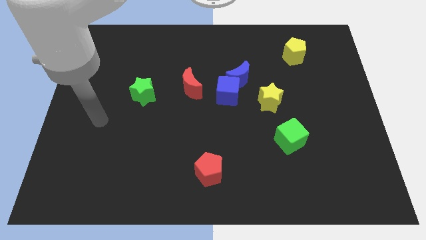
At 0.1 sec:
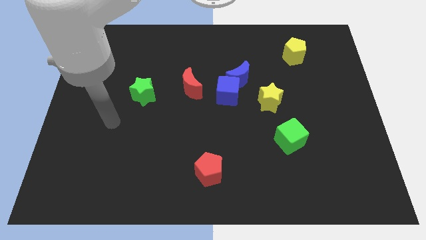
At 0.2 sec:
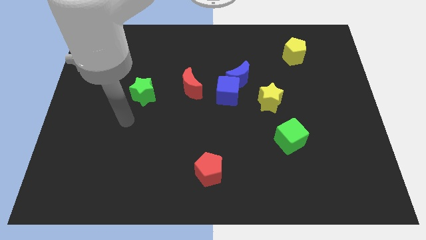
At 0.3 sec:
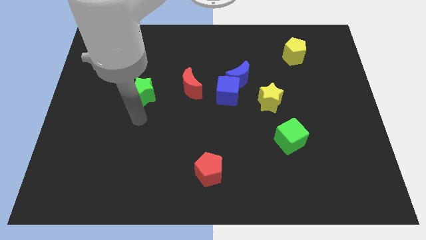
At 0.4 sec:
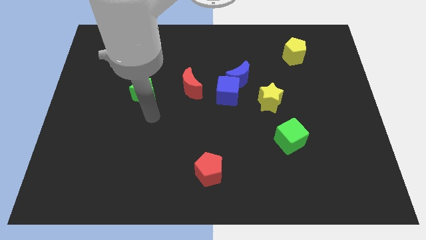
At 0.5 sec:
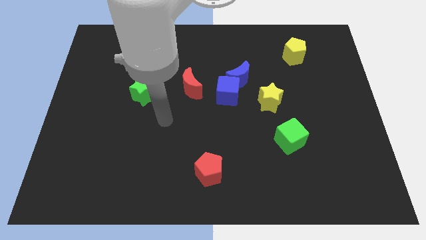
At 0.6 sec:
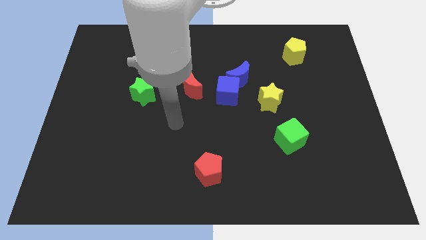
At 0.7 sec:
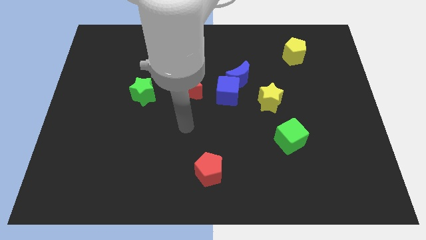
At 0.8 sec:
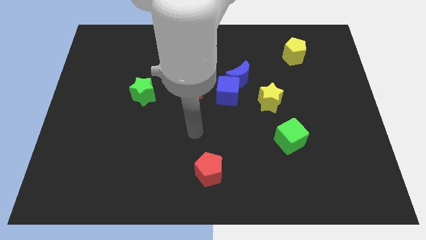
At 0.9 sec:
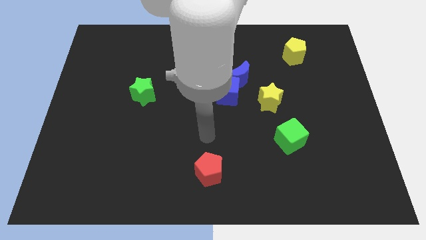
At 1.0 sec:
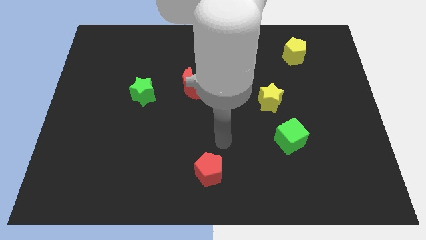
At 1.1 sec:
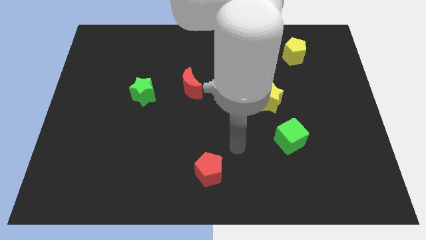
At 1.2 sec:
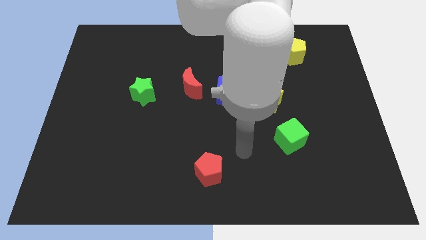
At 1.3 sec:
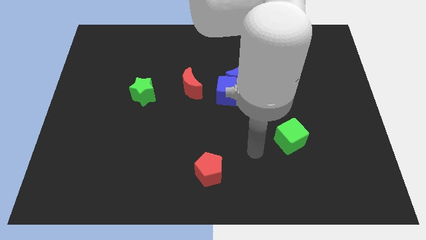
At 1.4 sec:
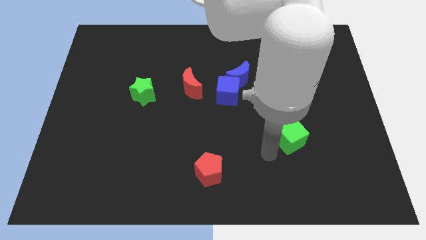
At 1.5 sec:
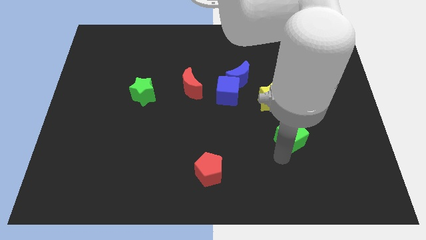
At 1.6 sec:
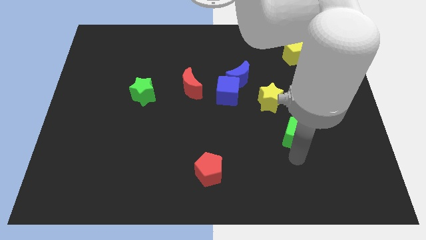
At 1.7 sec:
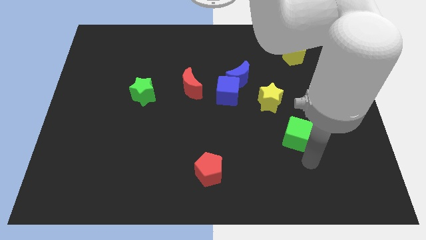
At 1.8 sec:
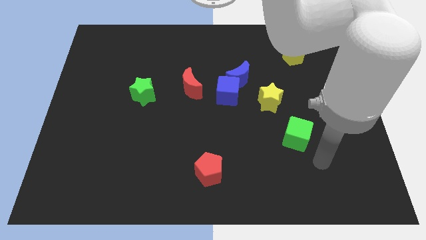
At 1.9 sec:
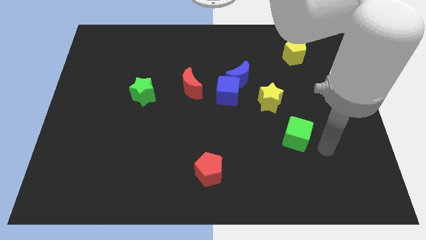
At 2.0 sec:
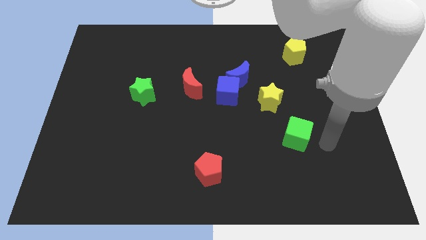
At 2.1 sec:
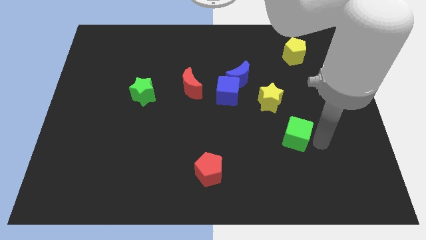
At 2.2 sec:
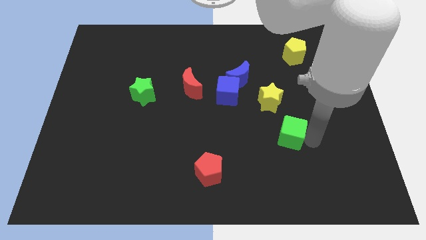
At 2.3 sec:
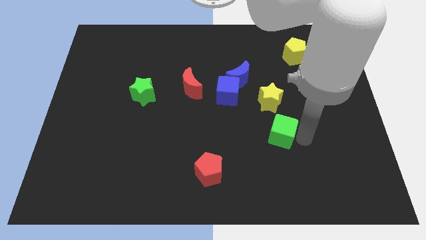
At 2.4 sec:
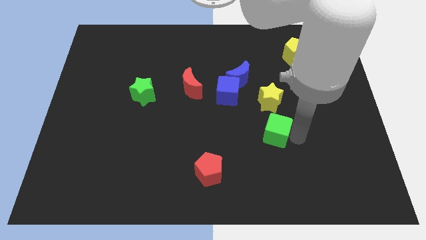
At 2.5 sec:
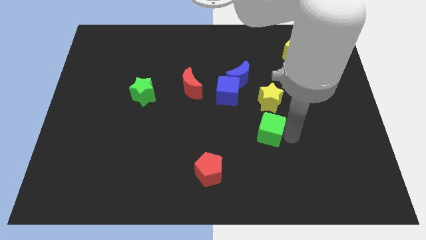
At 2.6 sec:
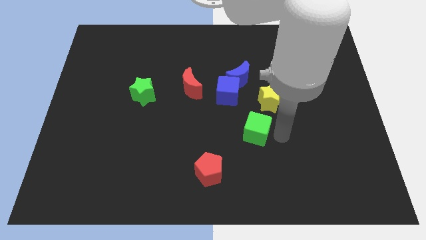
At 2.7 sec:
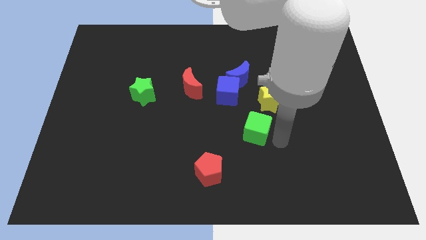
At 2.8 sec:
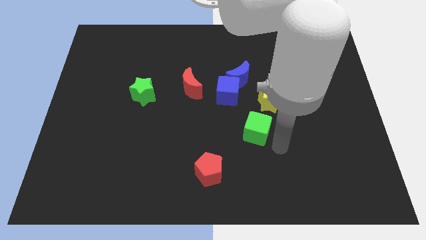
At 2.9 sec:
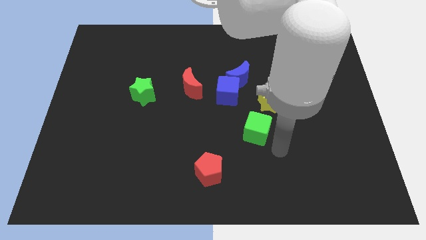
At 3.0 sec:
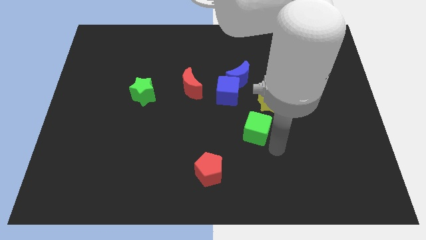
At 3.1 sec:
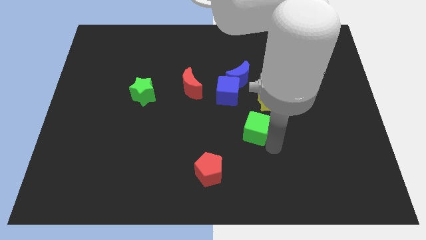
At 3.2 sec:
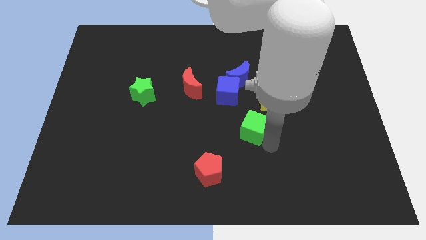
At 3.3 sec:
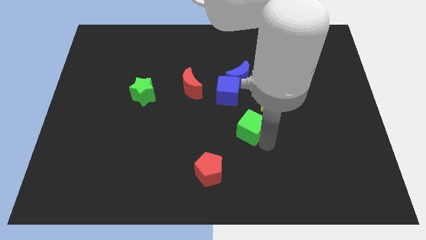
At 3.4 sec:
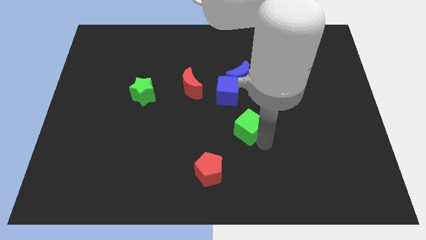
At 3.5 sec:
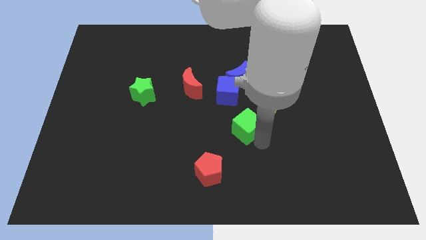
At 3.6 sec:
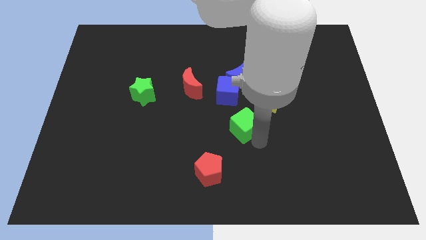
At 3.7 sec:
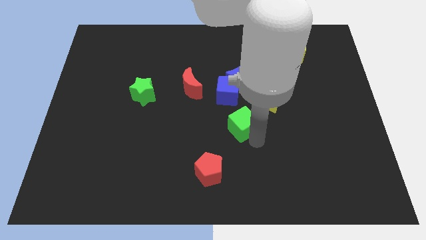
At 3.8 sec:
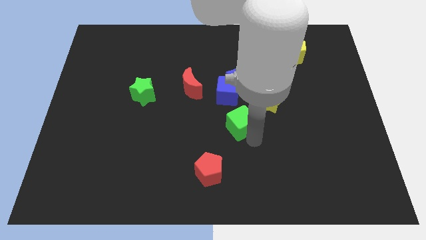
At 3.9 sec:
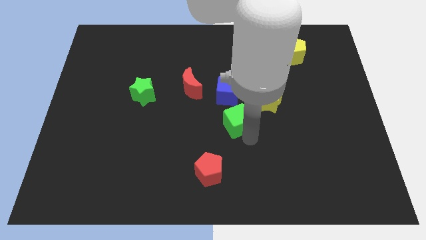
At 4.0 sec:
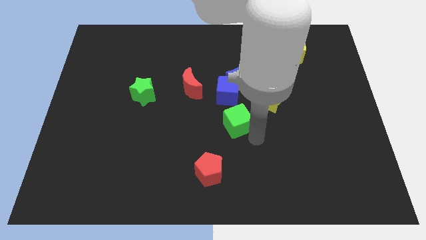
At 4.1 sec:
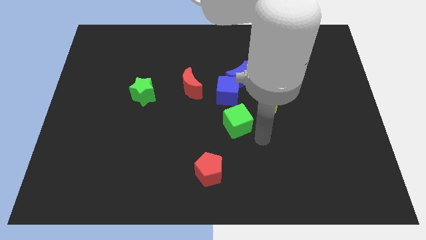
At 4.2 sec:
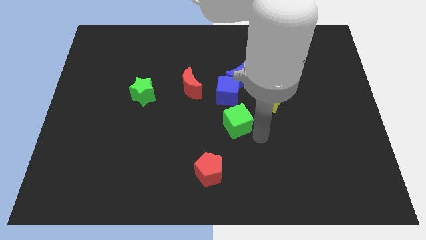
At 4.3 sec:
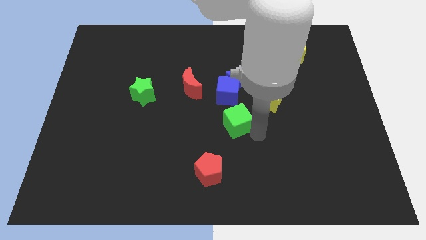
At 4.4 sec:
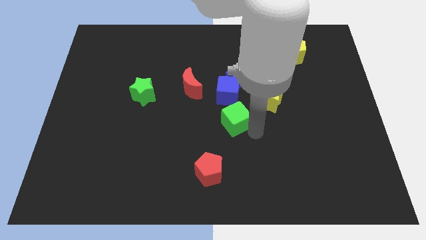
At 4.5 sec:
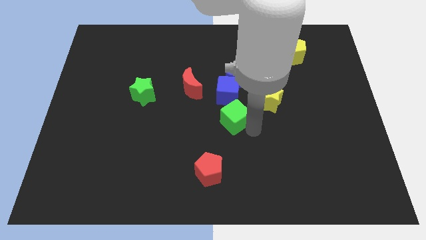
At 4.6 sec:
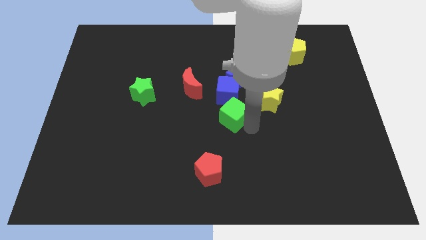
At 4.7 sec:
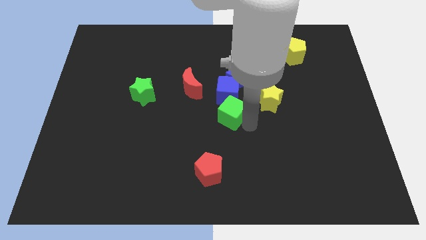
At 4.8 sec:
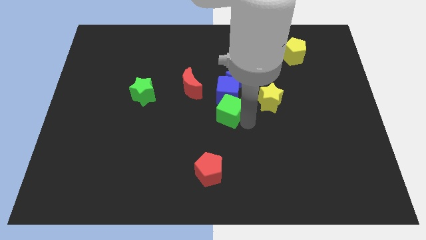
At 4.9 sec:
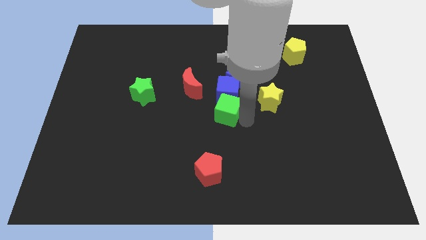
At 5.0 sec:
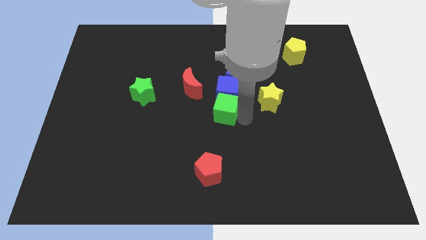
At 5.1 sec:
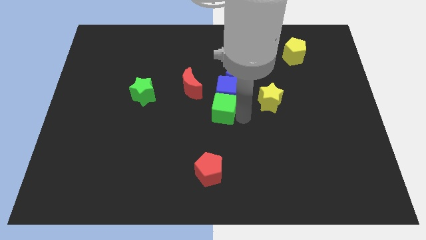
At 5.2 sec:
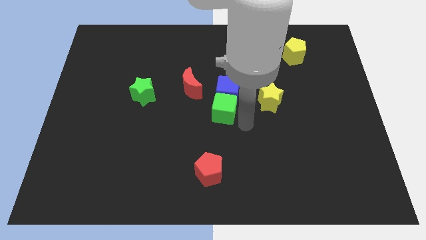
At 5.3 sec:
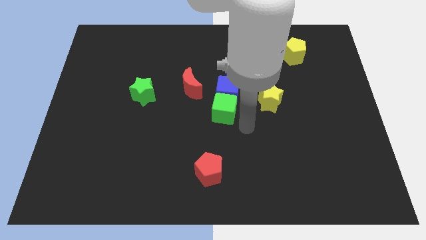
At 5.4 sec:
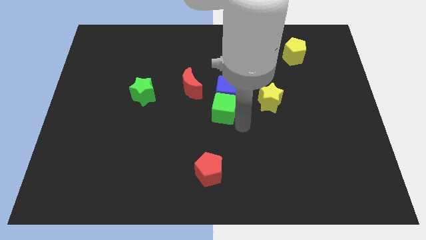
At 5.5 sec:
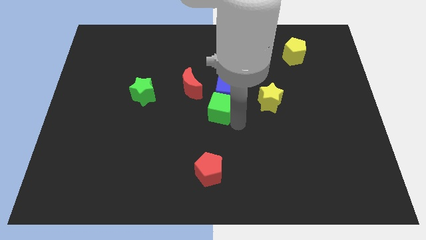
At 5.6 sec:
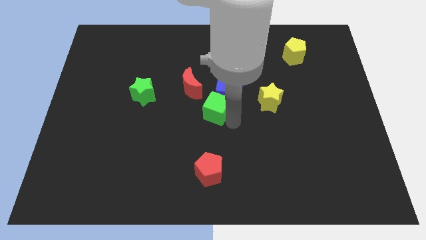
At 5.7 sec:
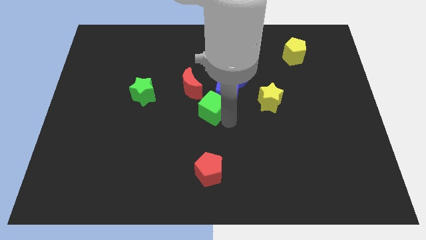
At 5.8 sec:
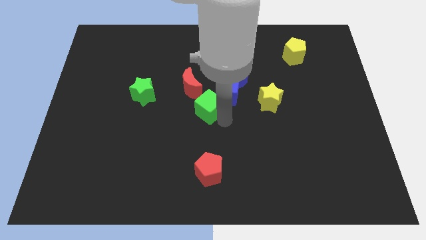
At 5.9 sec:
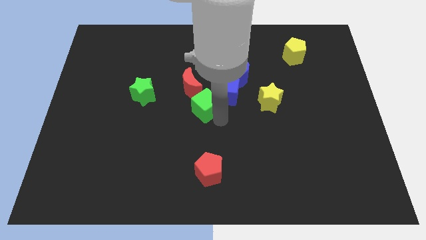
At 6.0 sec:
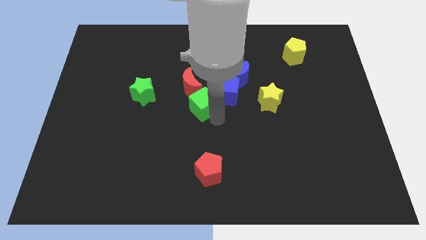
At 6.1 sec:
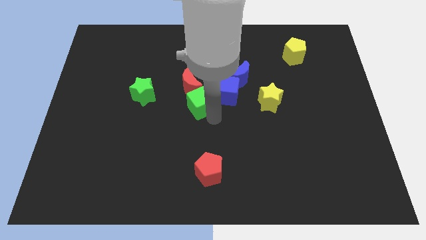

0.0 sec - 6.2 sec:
push the green cube to the red moon

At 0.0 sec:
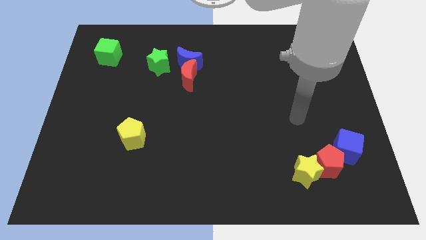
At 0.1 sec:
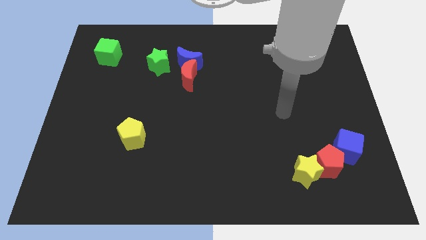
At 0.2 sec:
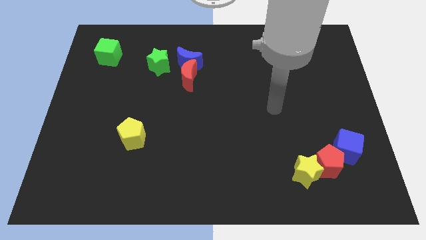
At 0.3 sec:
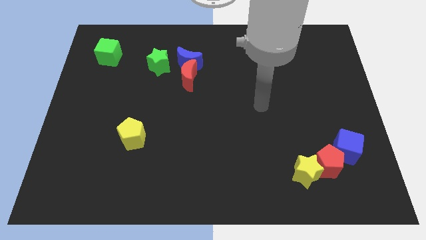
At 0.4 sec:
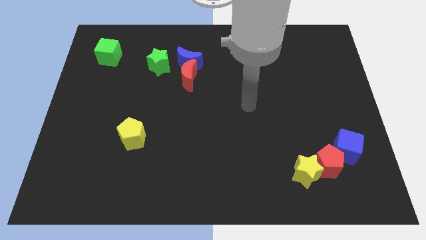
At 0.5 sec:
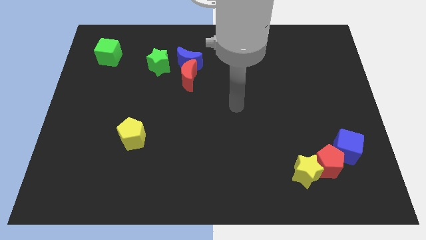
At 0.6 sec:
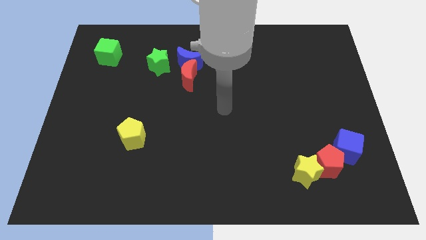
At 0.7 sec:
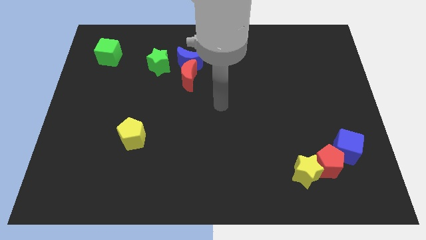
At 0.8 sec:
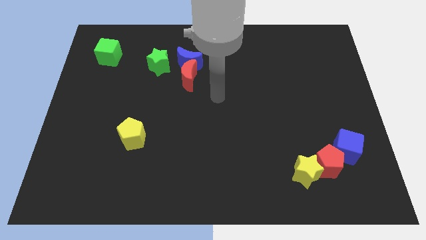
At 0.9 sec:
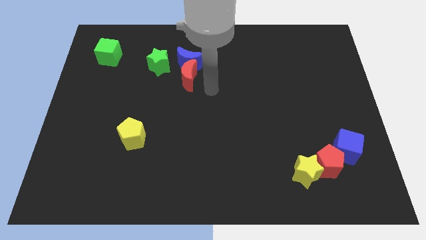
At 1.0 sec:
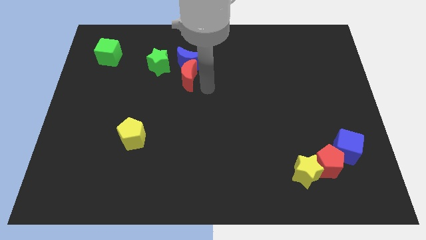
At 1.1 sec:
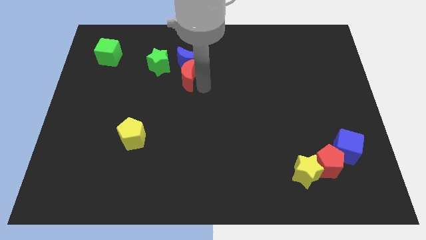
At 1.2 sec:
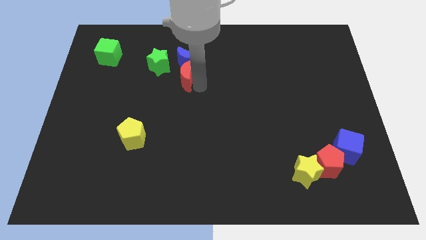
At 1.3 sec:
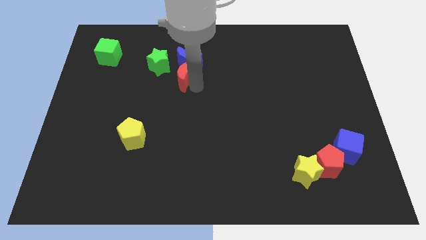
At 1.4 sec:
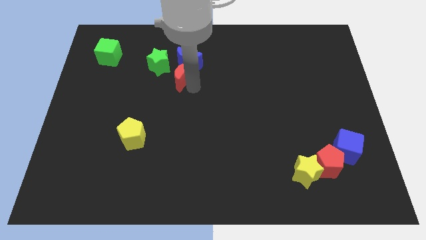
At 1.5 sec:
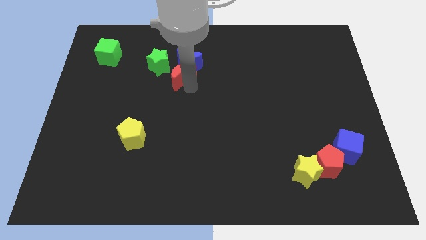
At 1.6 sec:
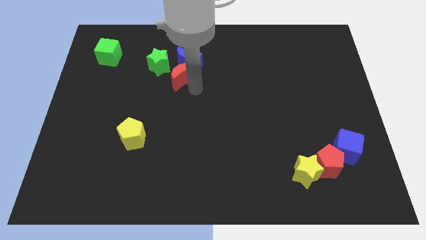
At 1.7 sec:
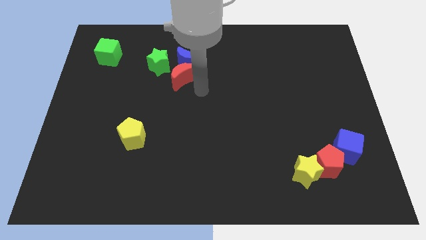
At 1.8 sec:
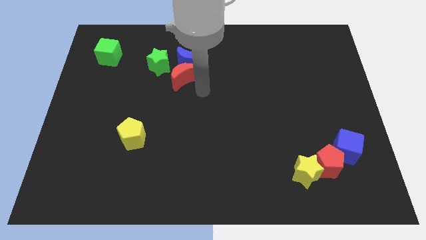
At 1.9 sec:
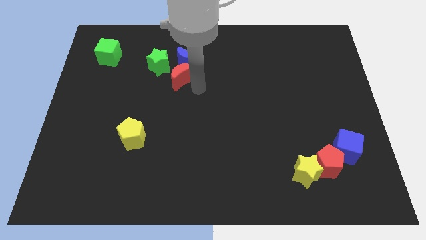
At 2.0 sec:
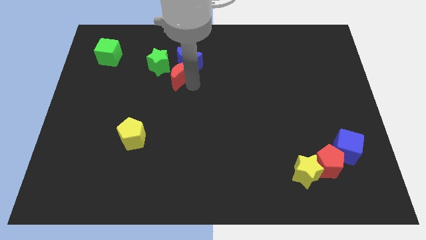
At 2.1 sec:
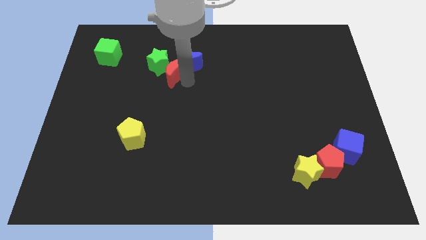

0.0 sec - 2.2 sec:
slide the red moon close to the green star
